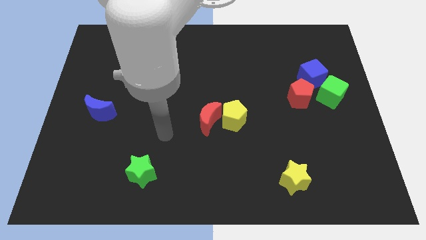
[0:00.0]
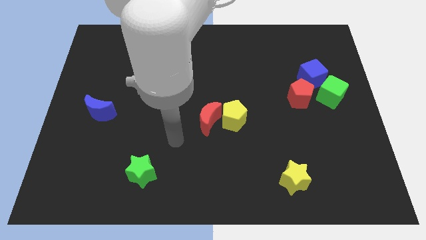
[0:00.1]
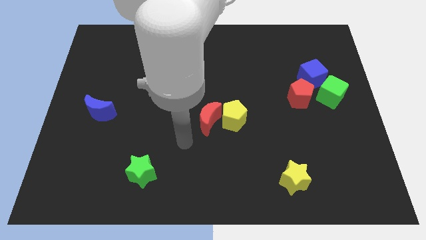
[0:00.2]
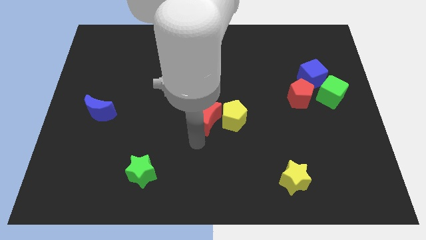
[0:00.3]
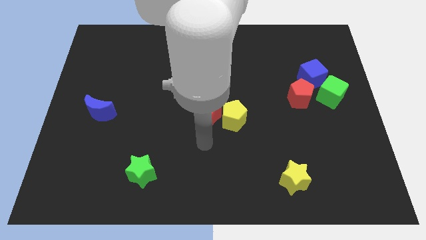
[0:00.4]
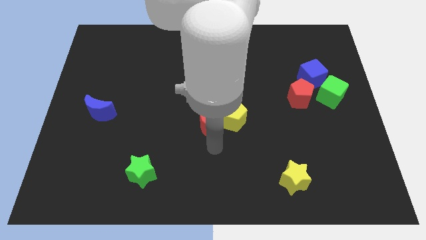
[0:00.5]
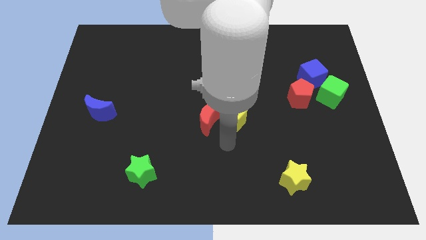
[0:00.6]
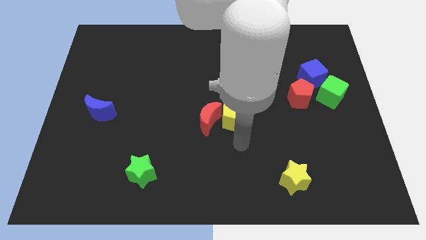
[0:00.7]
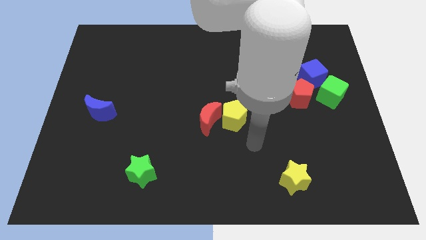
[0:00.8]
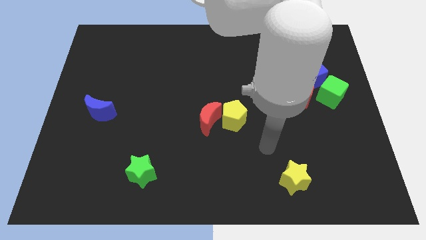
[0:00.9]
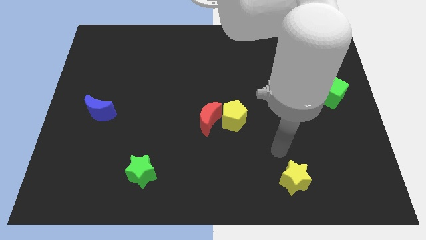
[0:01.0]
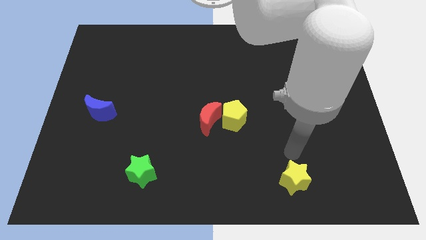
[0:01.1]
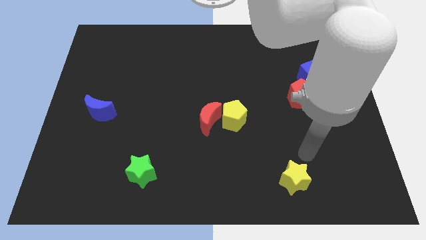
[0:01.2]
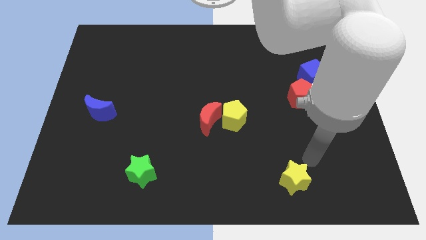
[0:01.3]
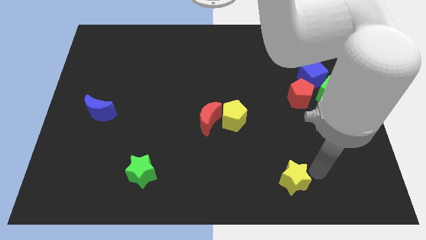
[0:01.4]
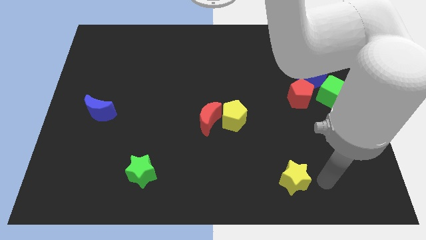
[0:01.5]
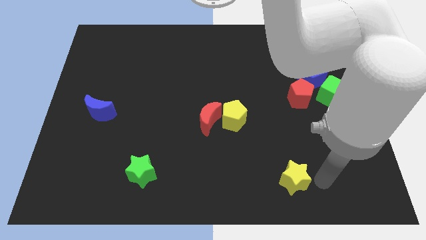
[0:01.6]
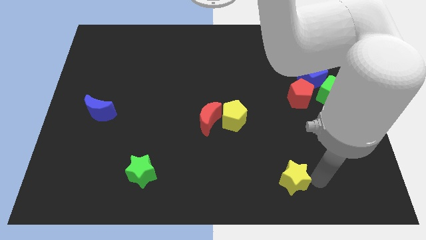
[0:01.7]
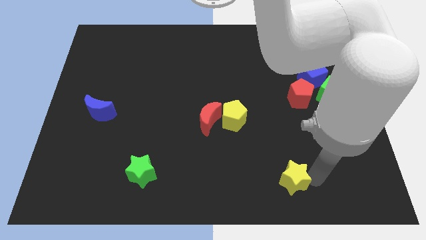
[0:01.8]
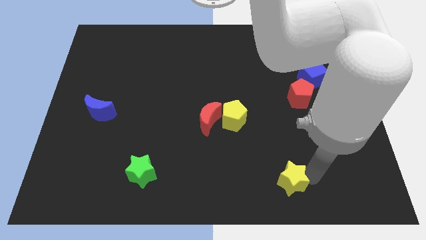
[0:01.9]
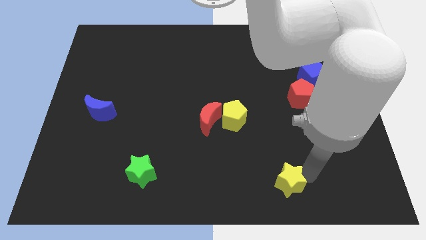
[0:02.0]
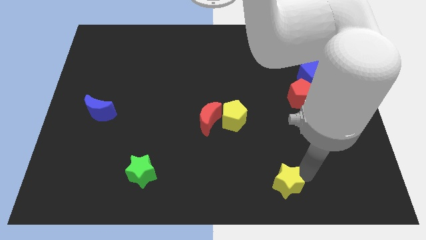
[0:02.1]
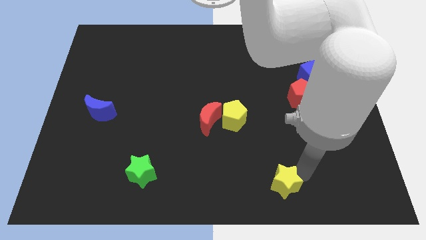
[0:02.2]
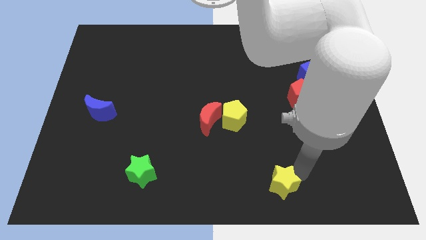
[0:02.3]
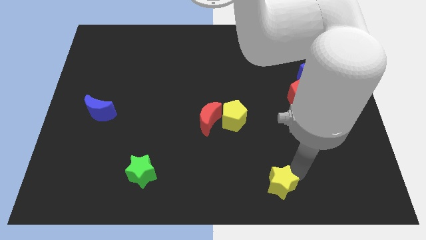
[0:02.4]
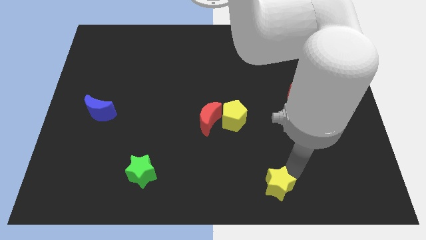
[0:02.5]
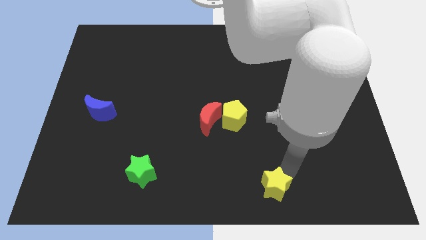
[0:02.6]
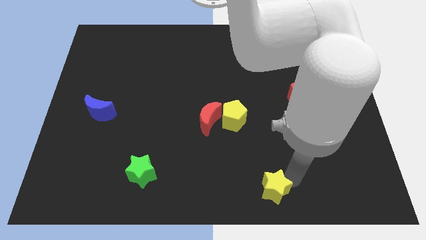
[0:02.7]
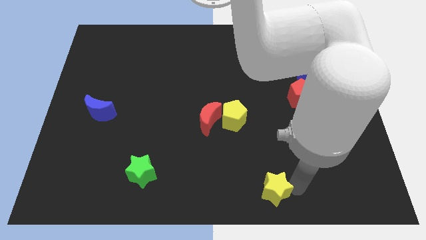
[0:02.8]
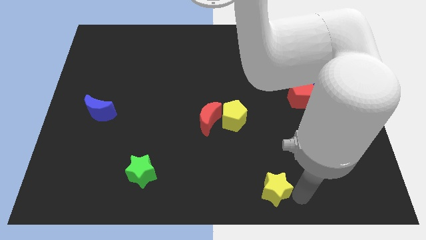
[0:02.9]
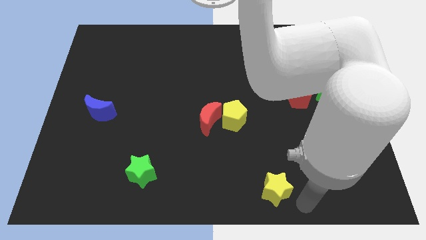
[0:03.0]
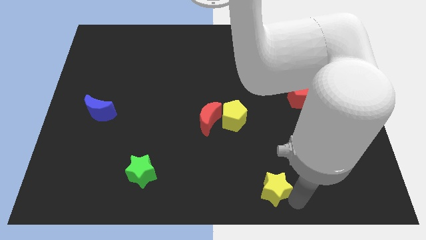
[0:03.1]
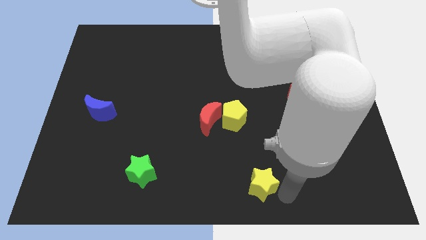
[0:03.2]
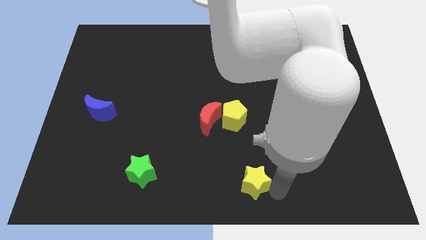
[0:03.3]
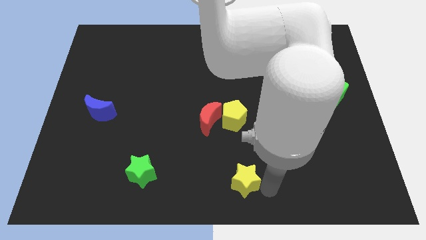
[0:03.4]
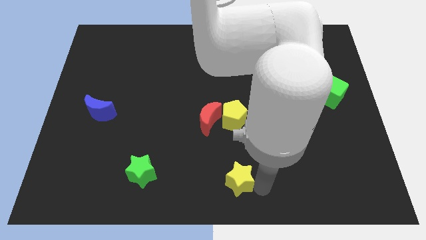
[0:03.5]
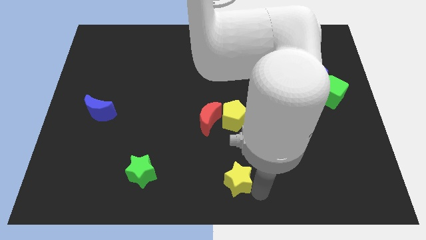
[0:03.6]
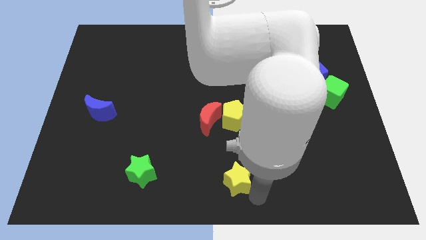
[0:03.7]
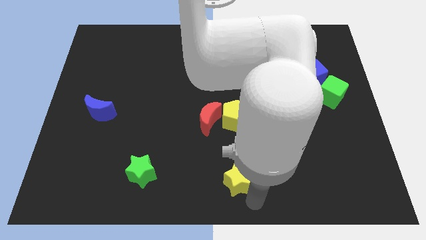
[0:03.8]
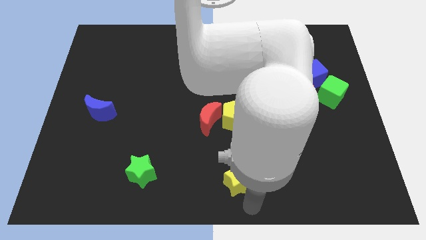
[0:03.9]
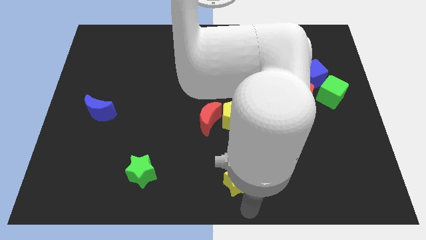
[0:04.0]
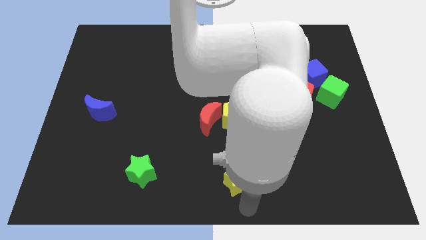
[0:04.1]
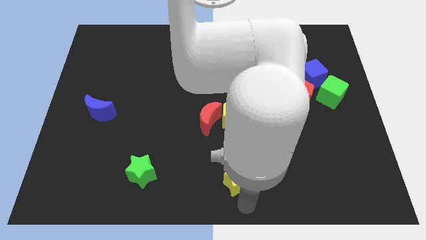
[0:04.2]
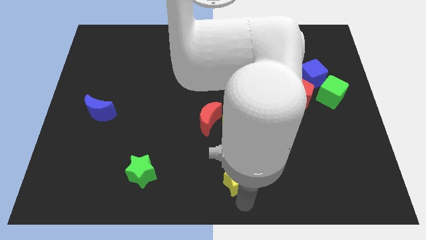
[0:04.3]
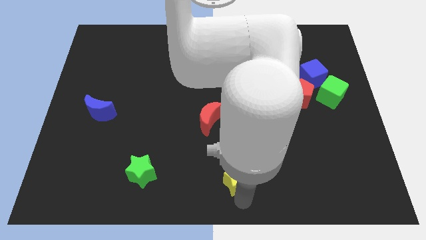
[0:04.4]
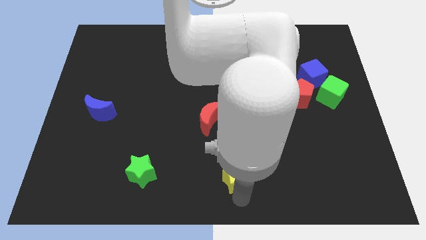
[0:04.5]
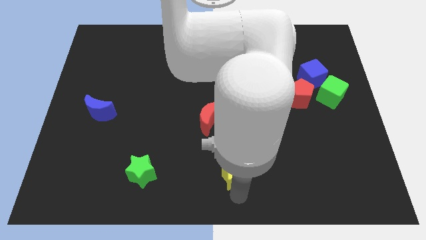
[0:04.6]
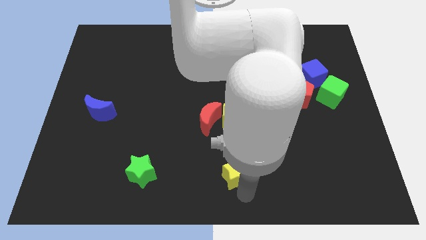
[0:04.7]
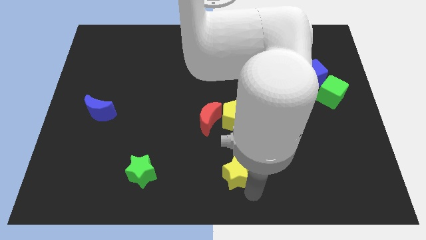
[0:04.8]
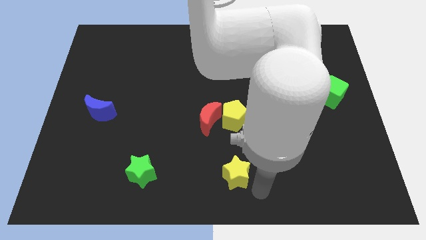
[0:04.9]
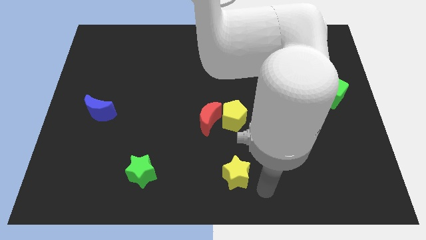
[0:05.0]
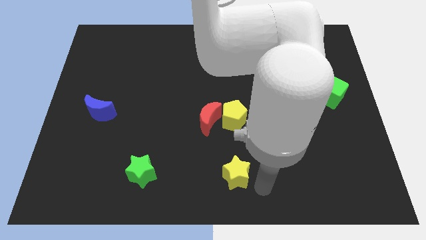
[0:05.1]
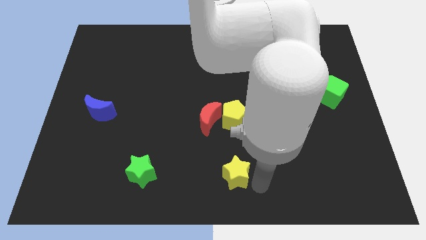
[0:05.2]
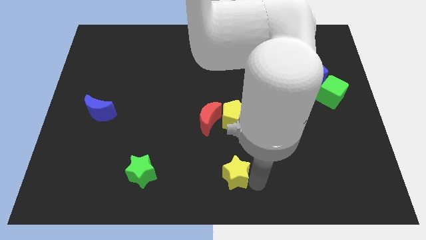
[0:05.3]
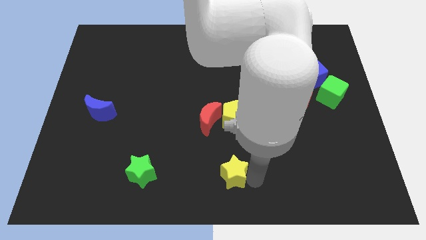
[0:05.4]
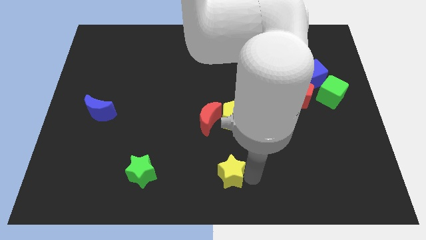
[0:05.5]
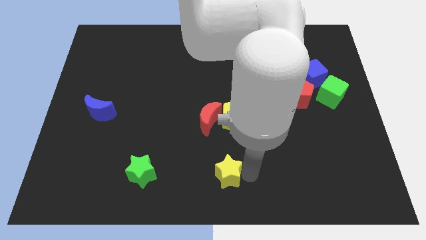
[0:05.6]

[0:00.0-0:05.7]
put the yellow star to the bottom of the red moon

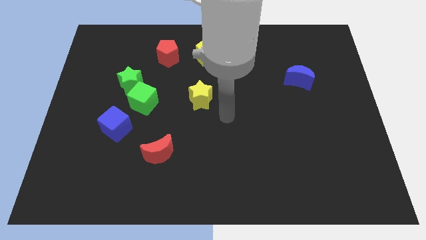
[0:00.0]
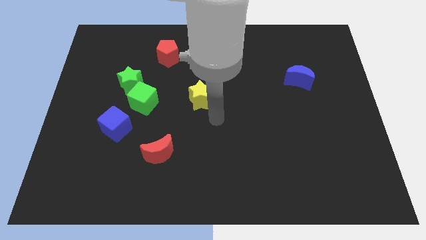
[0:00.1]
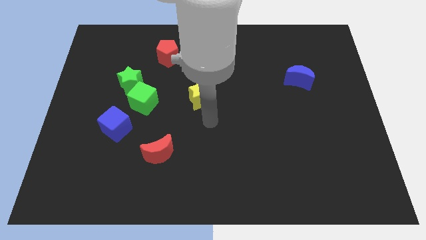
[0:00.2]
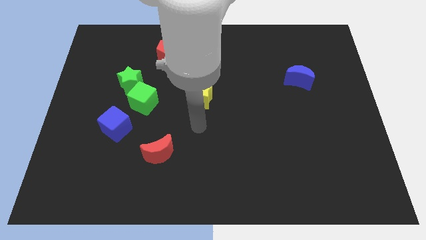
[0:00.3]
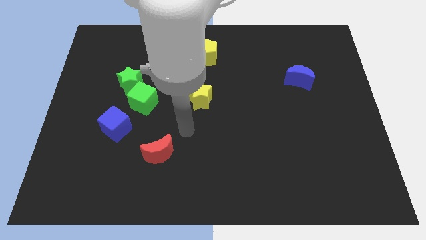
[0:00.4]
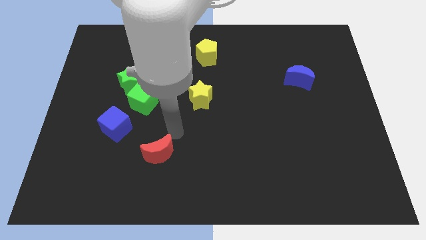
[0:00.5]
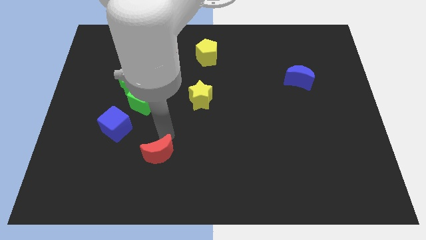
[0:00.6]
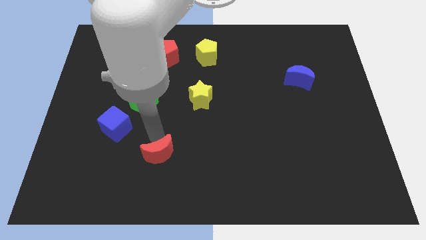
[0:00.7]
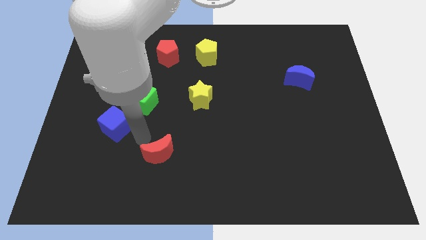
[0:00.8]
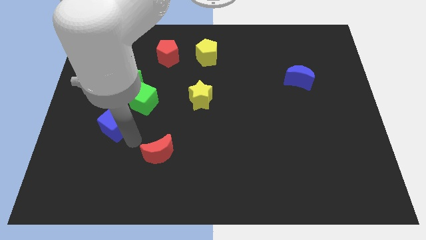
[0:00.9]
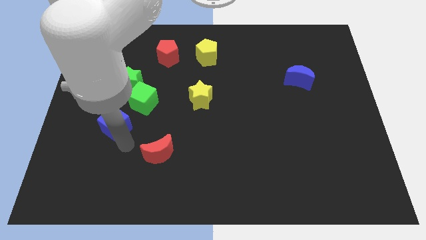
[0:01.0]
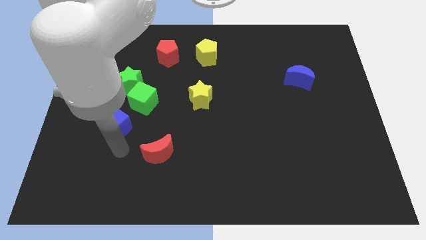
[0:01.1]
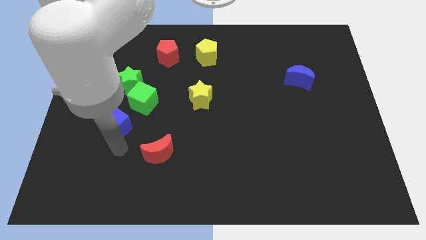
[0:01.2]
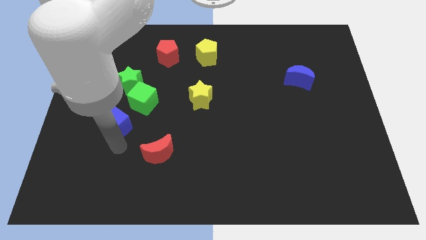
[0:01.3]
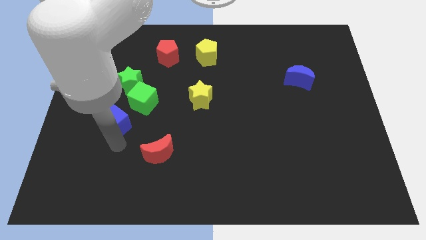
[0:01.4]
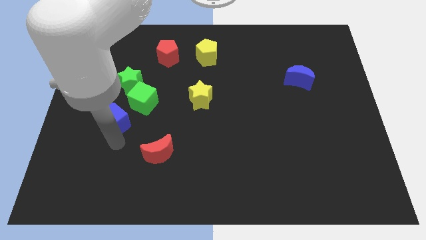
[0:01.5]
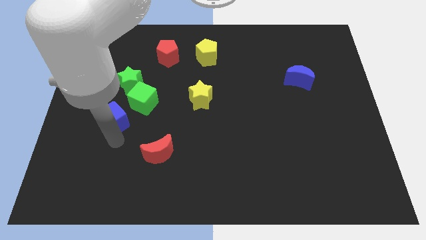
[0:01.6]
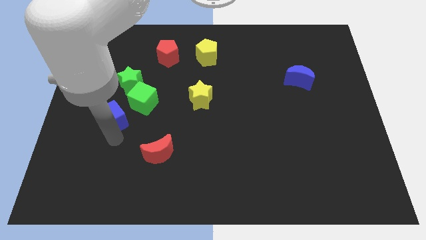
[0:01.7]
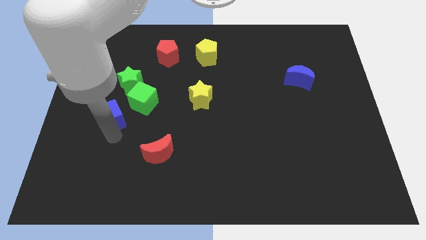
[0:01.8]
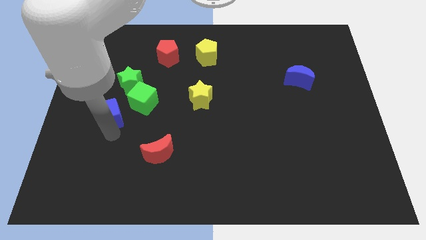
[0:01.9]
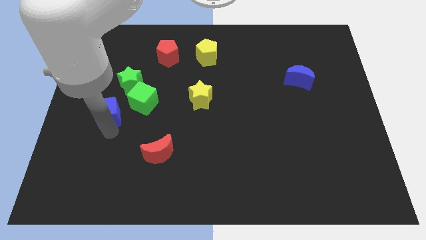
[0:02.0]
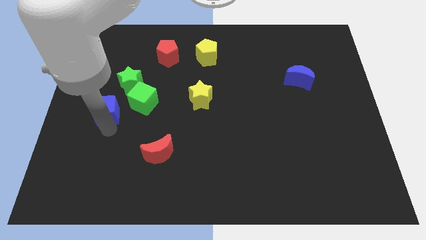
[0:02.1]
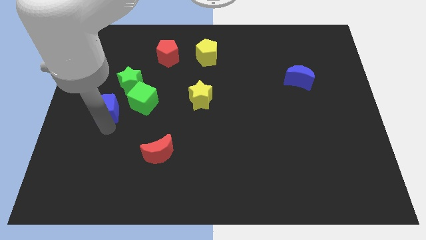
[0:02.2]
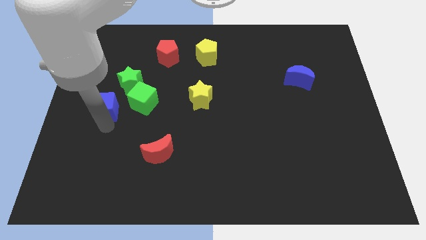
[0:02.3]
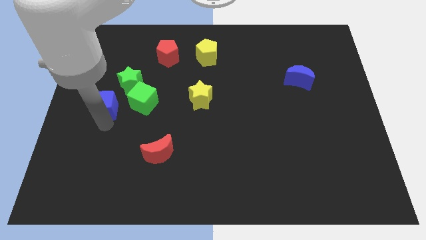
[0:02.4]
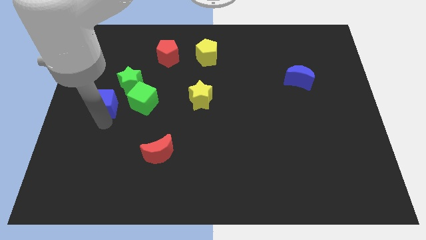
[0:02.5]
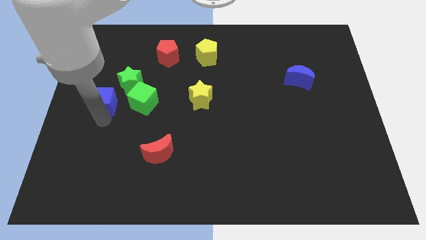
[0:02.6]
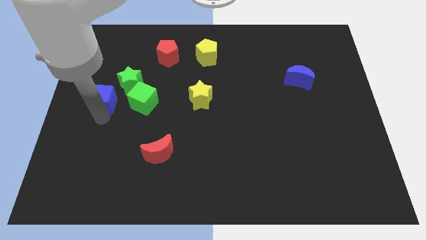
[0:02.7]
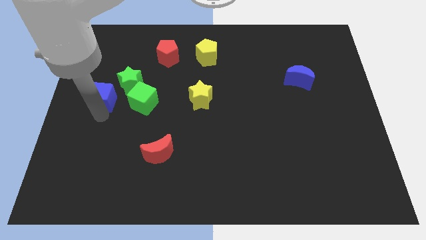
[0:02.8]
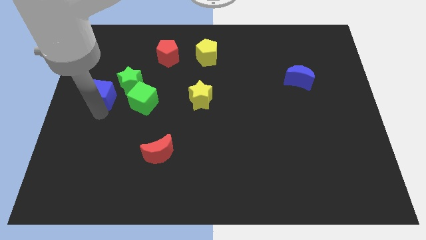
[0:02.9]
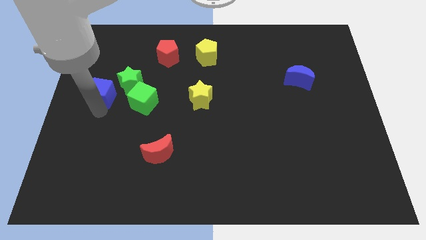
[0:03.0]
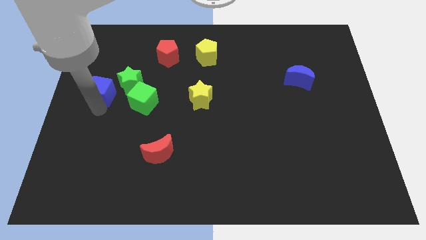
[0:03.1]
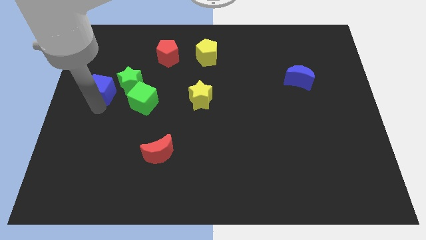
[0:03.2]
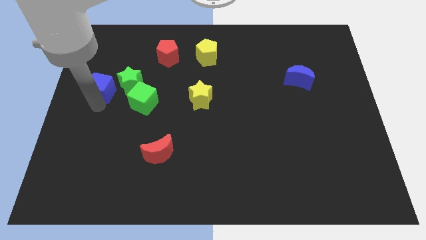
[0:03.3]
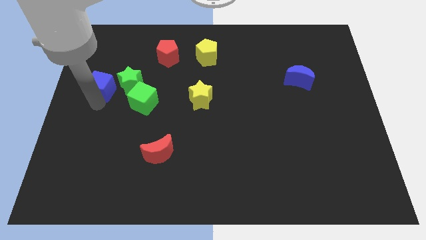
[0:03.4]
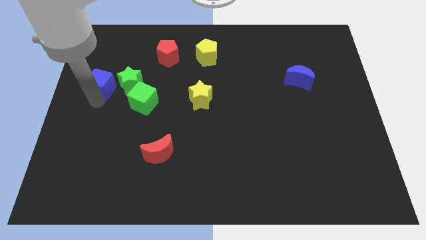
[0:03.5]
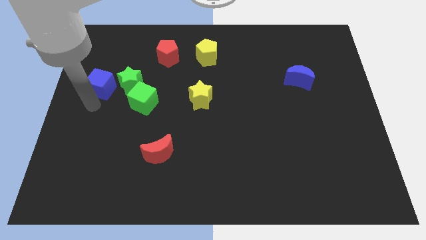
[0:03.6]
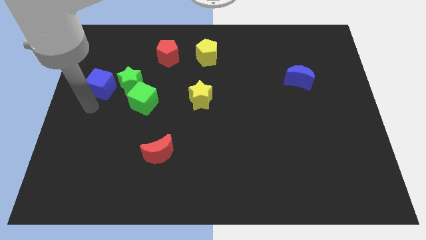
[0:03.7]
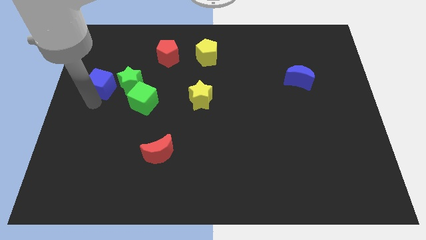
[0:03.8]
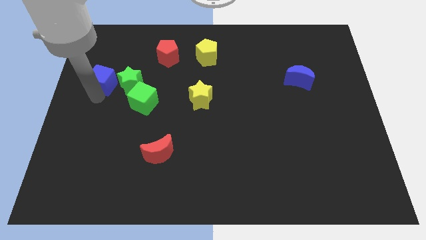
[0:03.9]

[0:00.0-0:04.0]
move the blue cube to the top left of the green star
